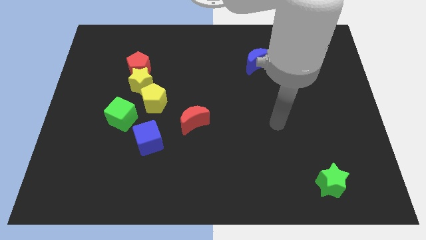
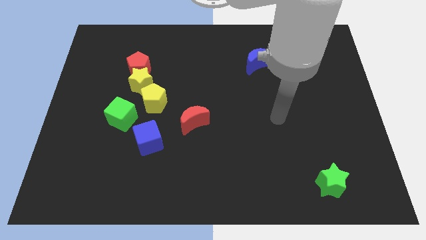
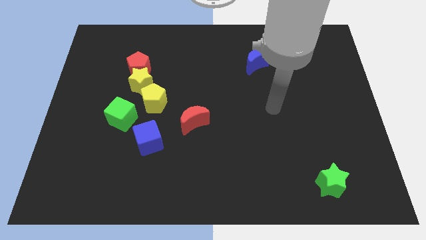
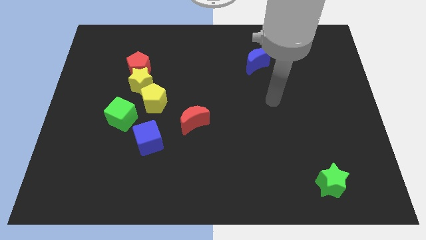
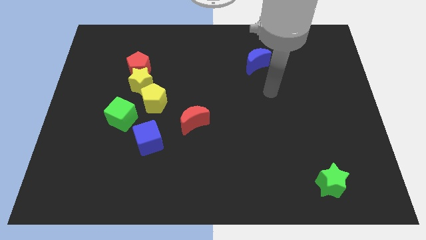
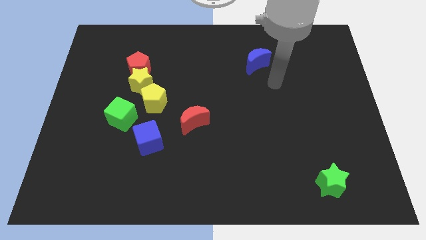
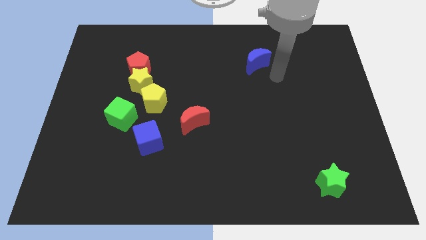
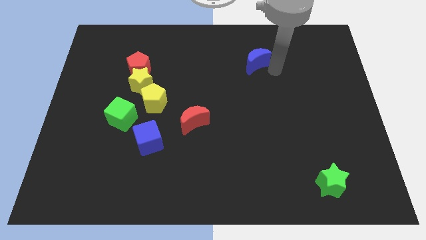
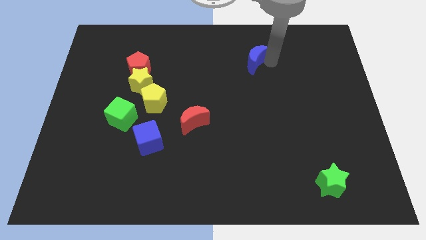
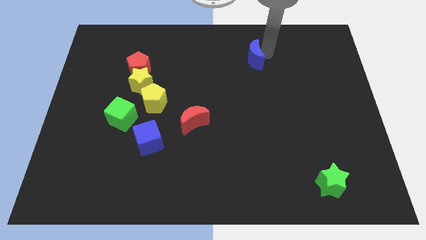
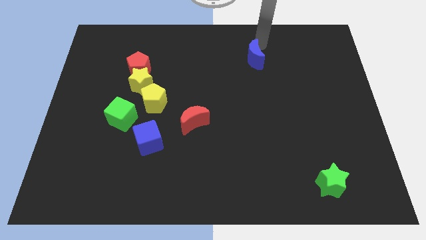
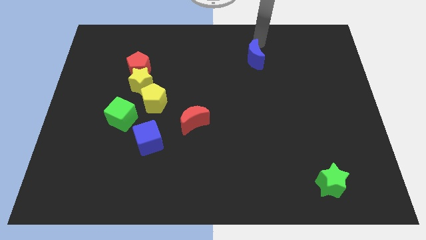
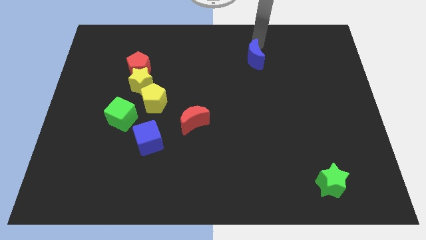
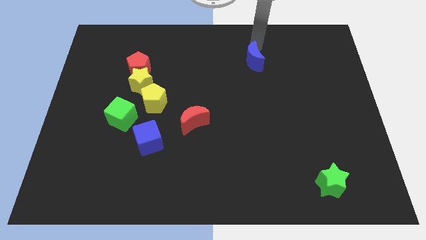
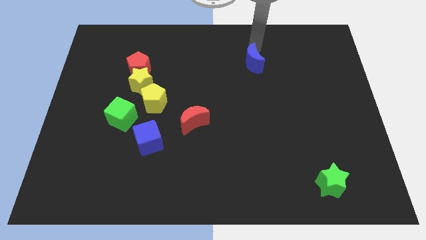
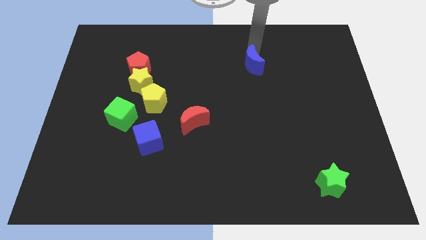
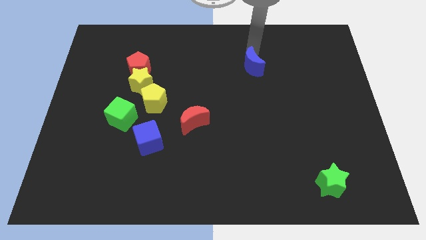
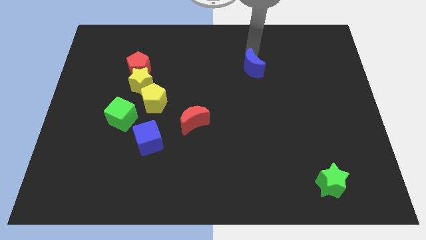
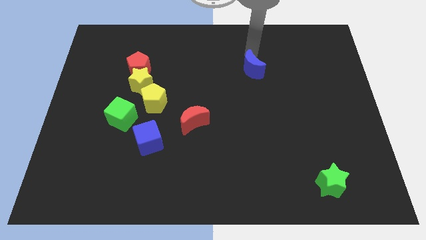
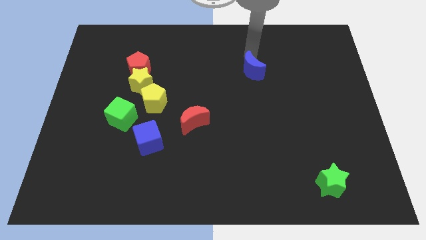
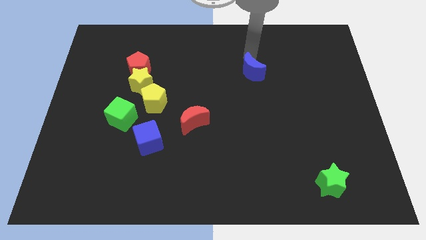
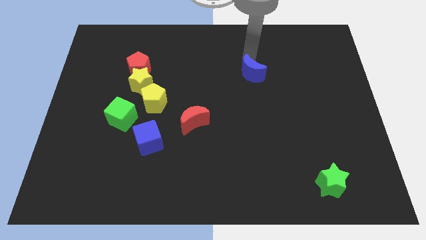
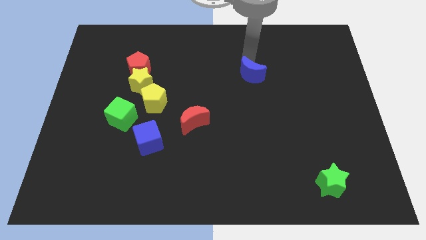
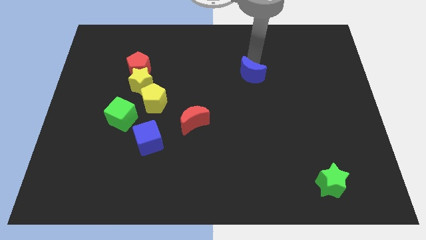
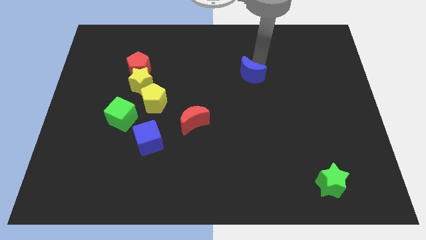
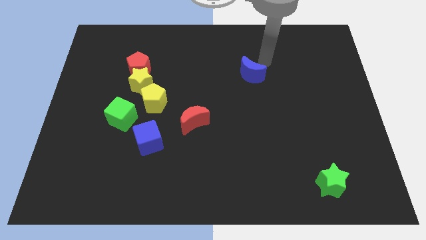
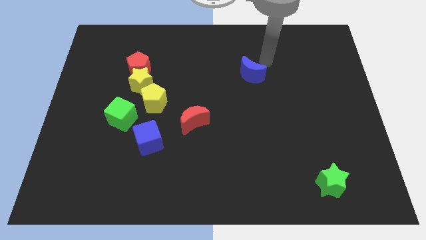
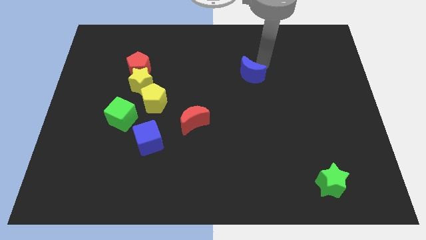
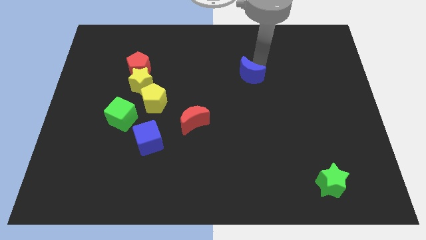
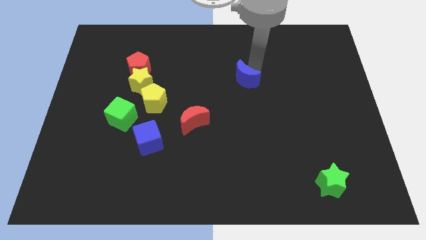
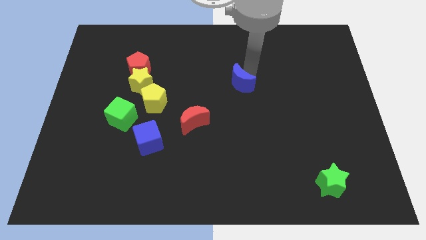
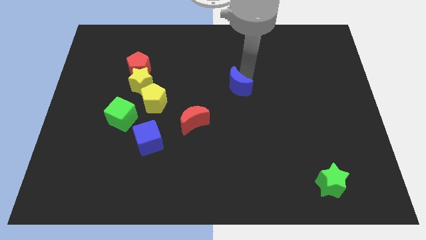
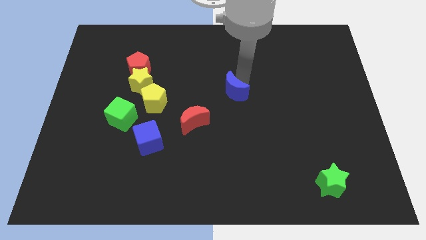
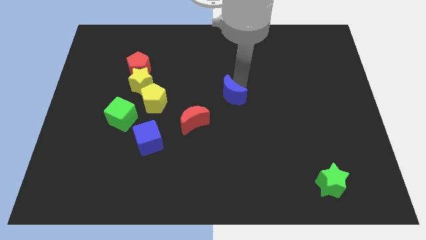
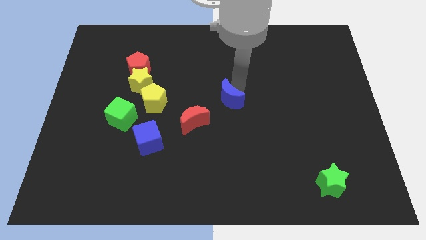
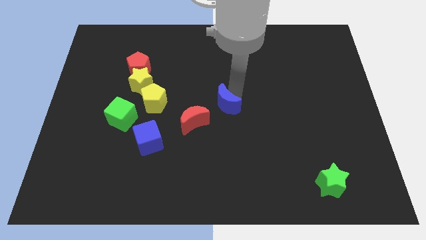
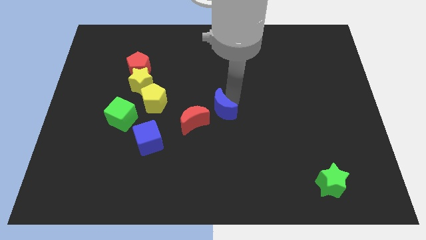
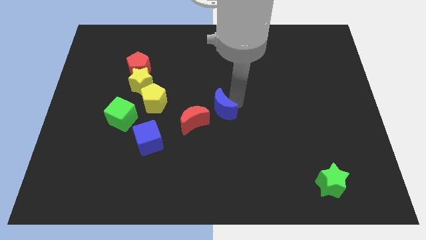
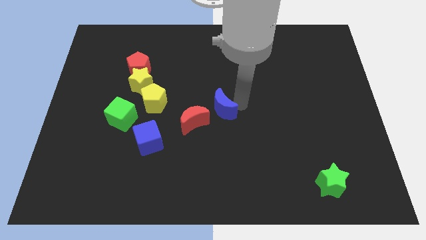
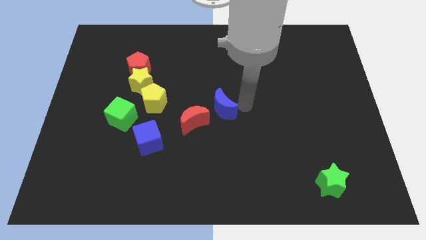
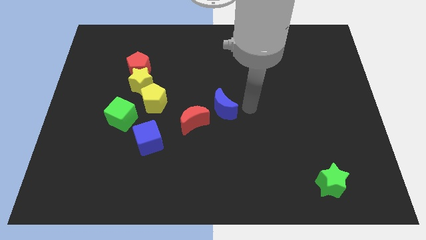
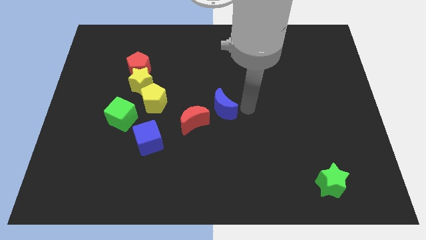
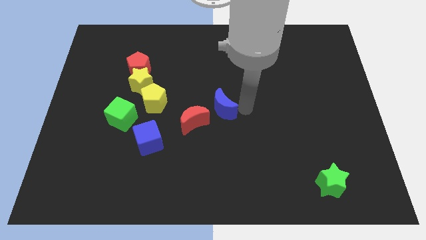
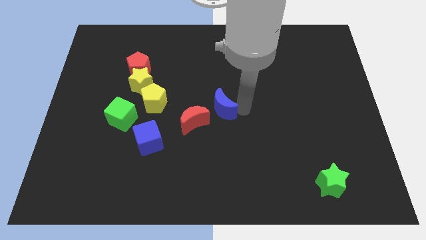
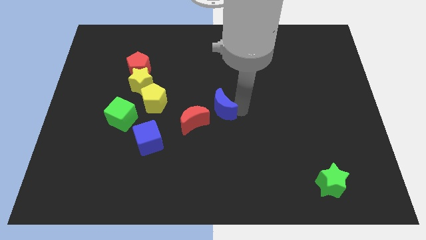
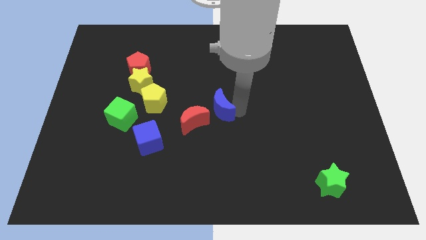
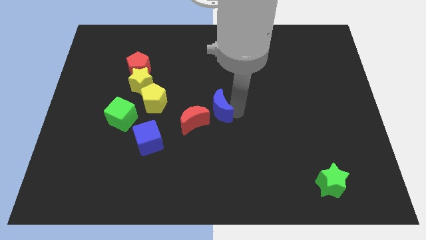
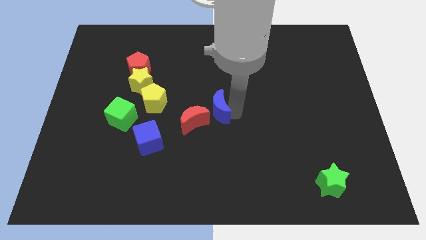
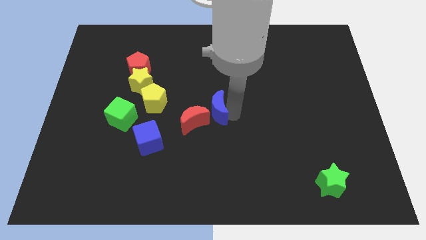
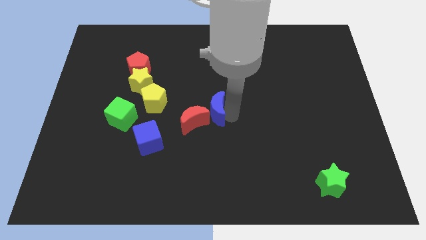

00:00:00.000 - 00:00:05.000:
put the blue moon towards the red moon

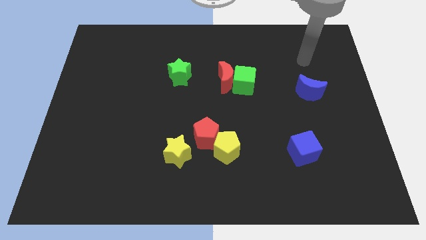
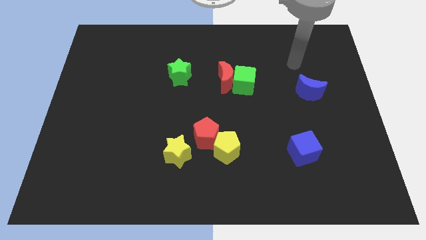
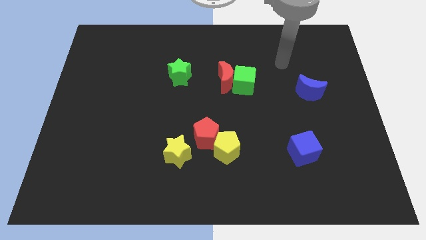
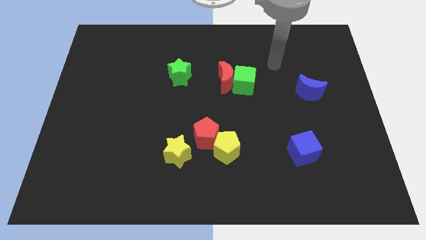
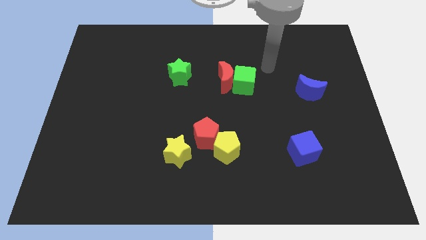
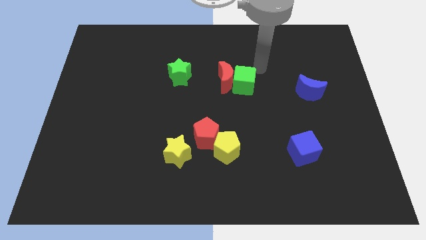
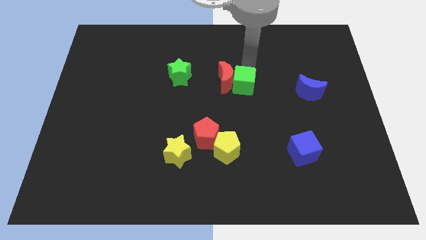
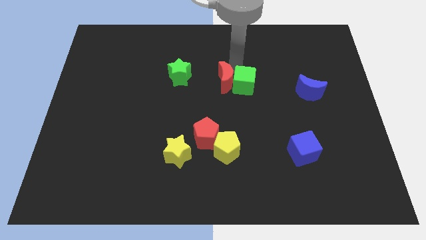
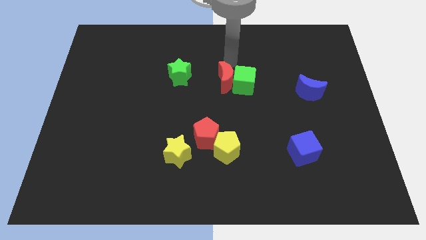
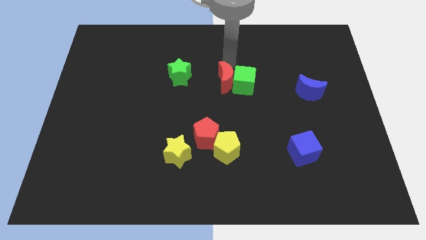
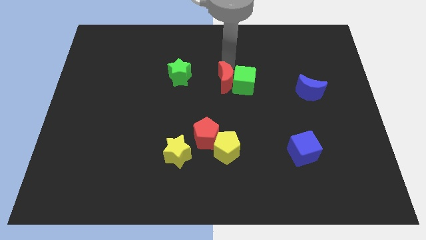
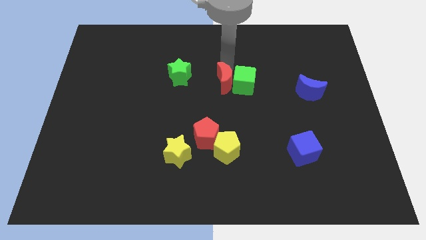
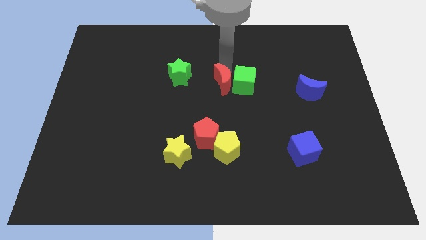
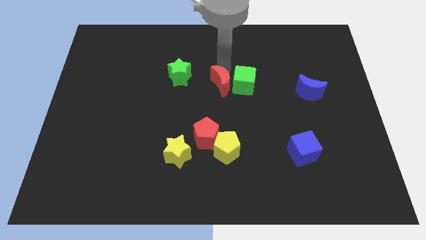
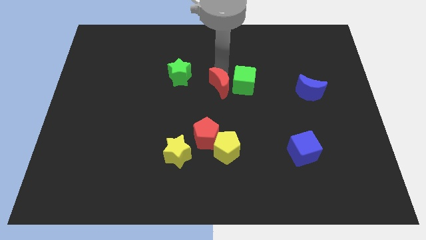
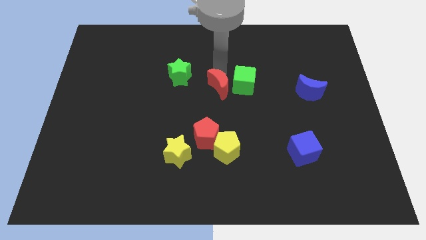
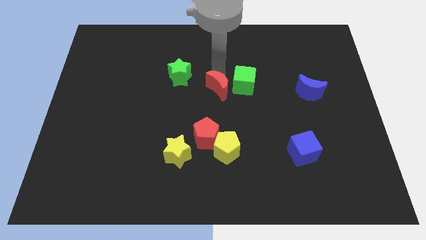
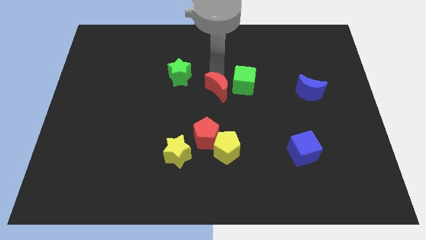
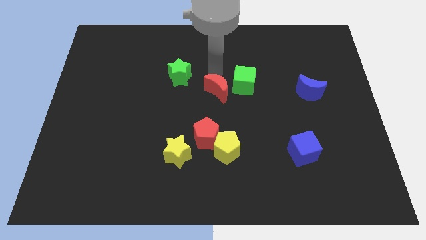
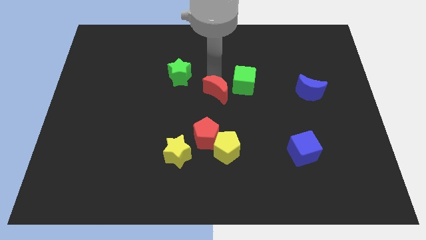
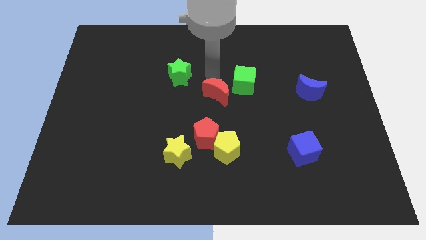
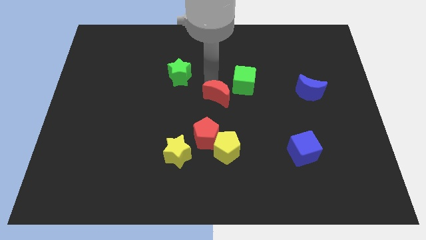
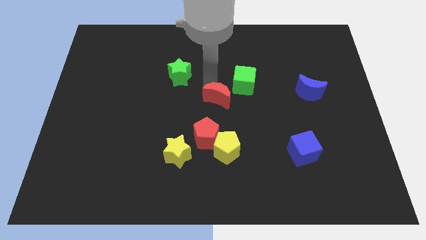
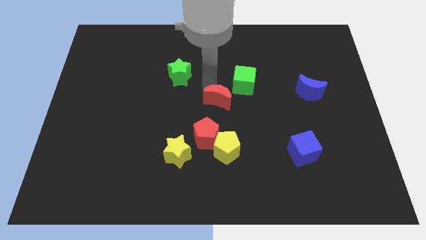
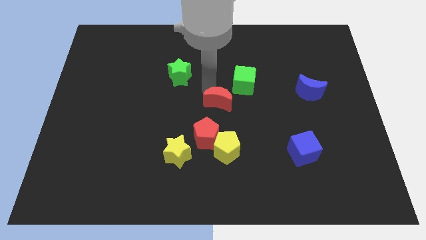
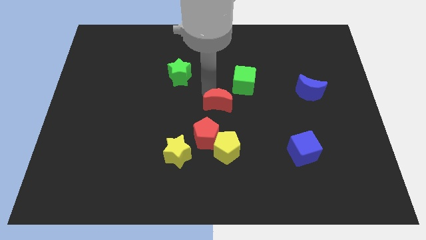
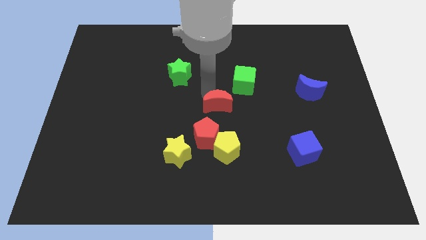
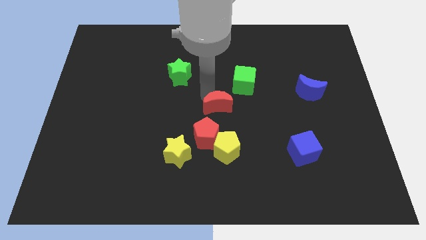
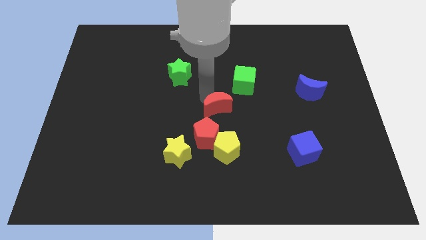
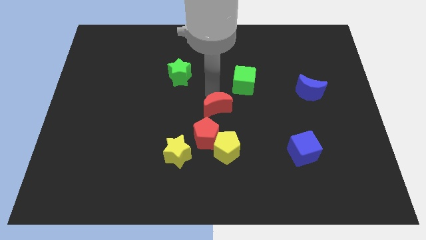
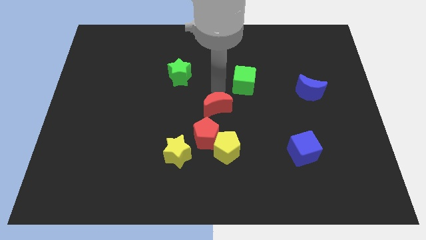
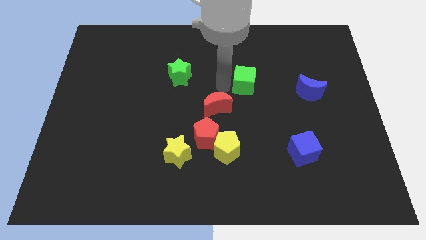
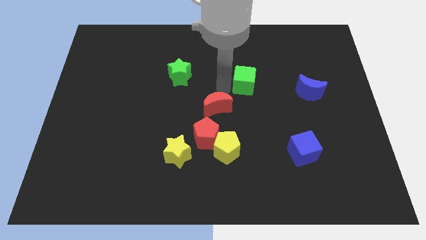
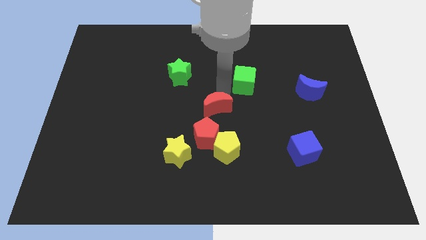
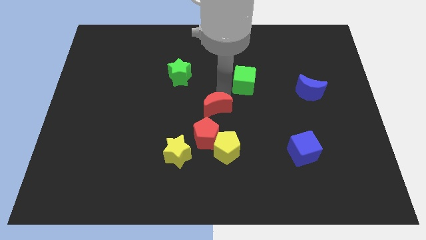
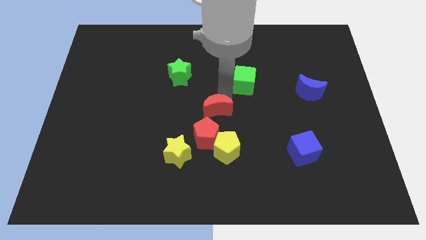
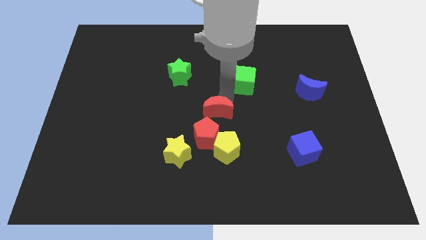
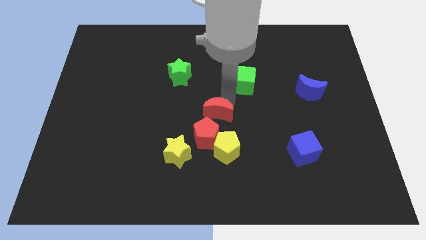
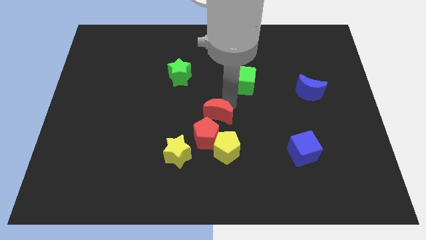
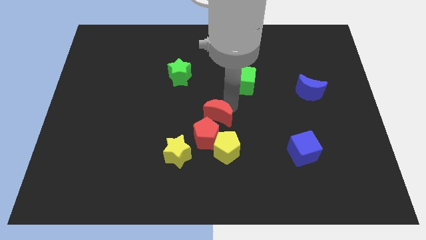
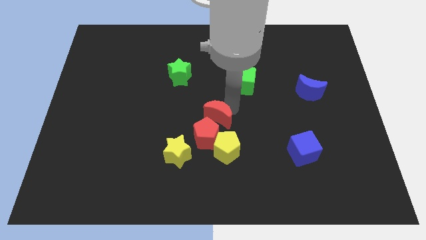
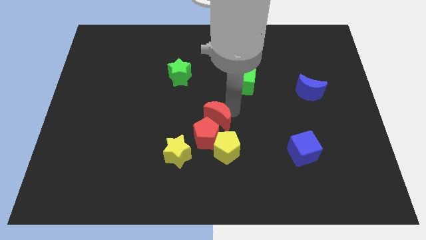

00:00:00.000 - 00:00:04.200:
push the red moon next to the red pentagon
